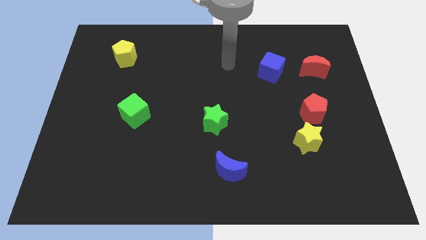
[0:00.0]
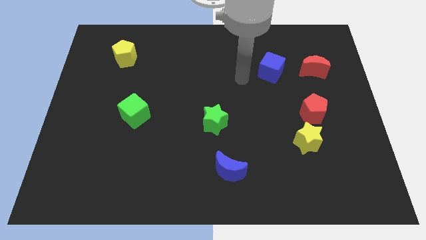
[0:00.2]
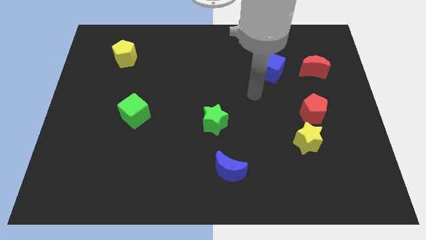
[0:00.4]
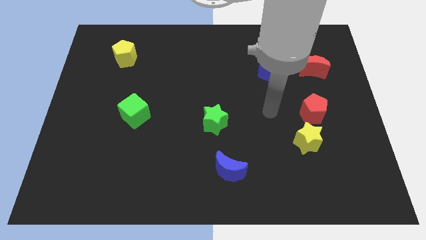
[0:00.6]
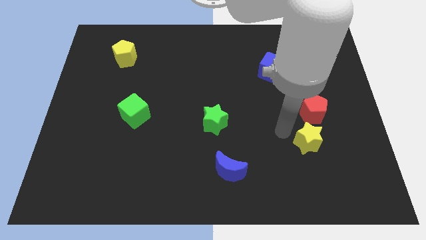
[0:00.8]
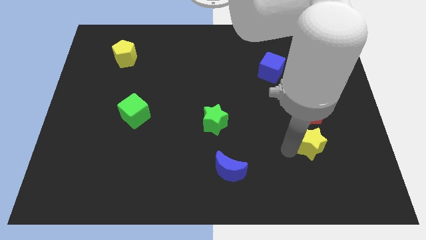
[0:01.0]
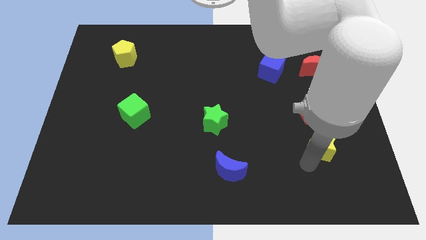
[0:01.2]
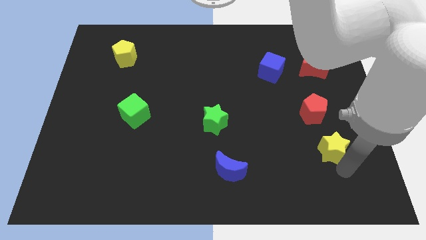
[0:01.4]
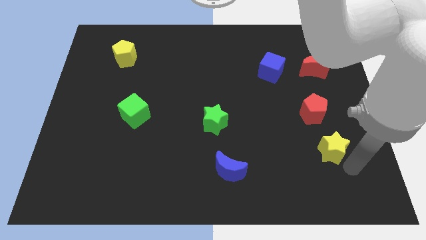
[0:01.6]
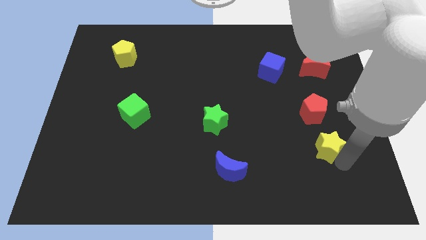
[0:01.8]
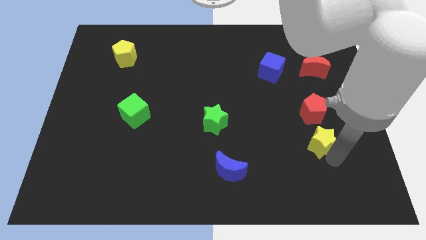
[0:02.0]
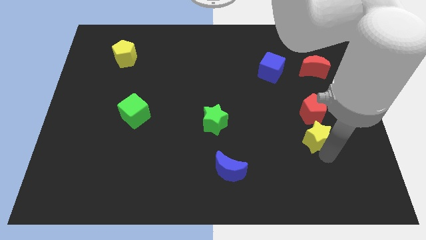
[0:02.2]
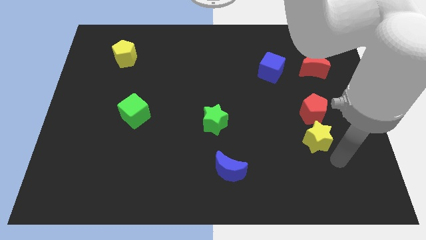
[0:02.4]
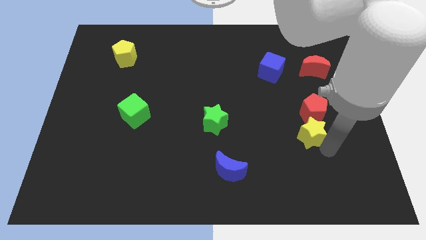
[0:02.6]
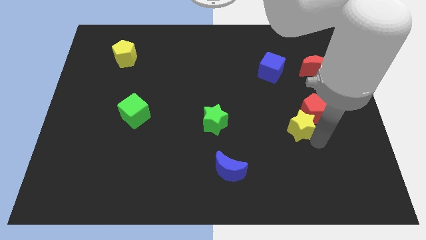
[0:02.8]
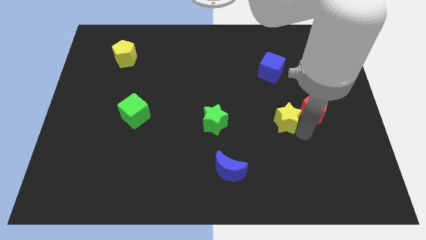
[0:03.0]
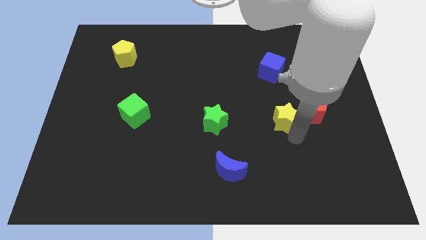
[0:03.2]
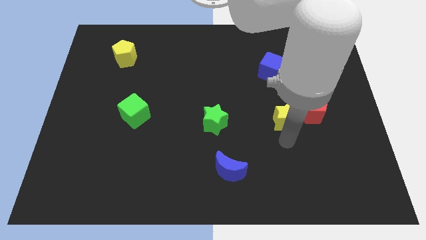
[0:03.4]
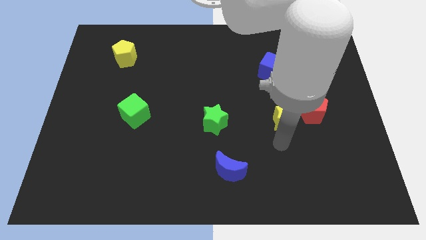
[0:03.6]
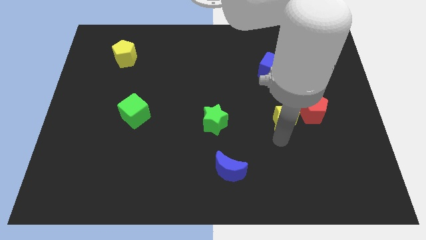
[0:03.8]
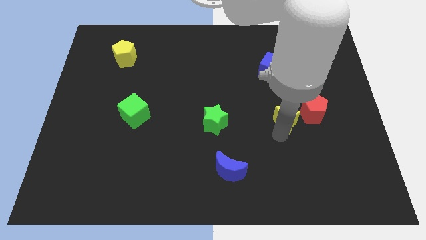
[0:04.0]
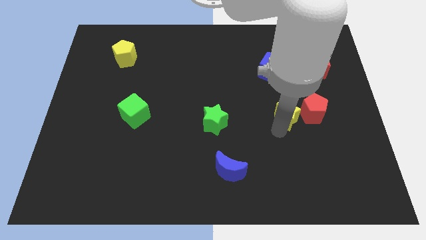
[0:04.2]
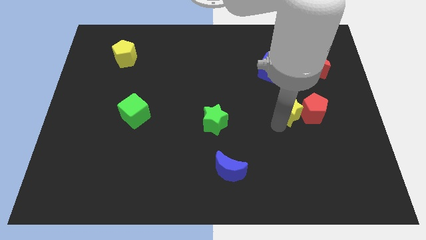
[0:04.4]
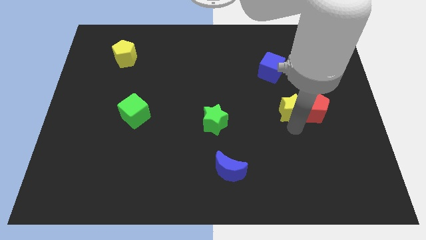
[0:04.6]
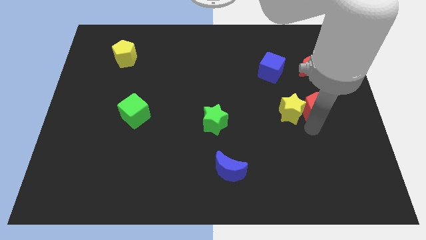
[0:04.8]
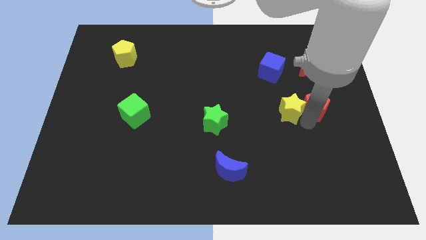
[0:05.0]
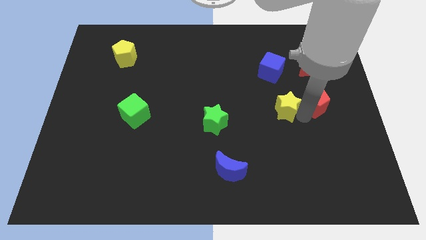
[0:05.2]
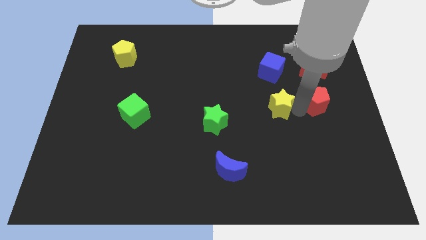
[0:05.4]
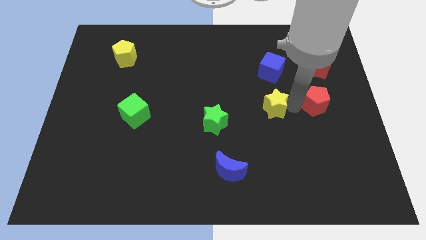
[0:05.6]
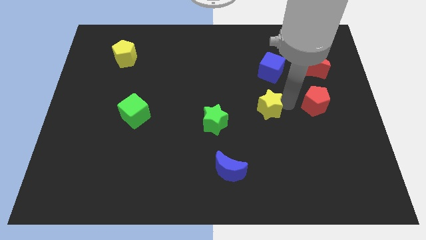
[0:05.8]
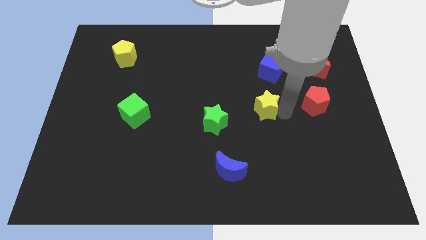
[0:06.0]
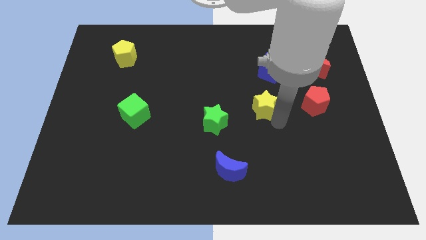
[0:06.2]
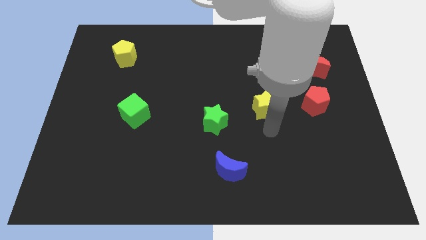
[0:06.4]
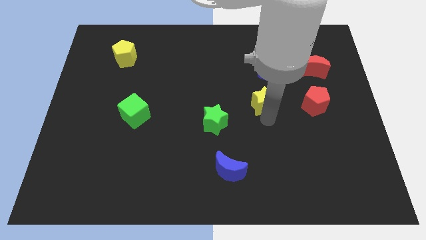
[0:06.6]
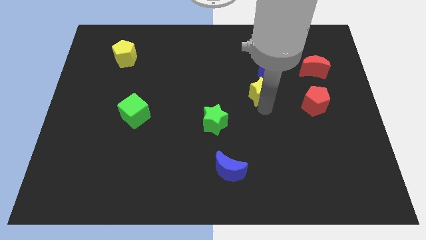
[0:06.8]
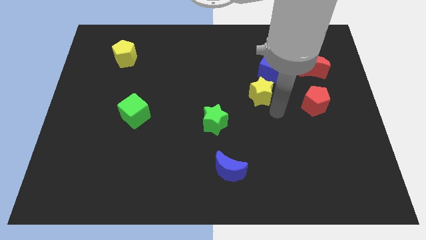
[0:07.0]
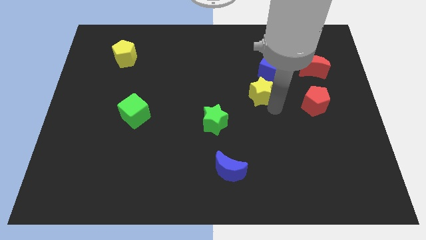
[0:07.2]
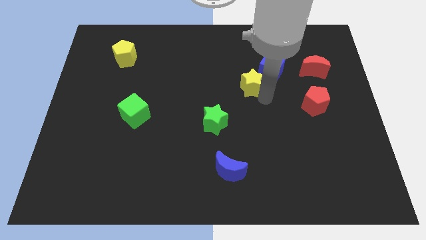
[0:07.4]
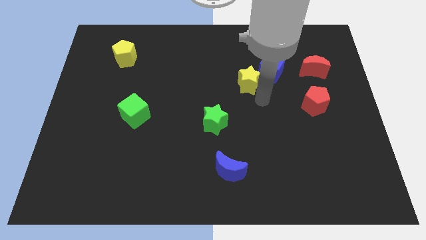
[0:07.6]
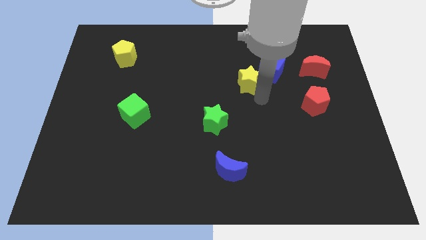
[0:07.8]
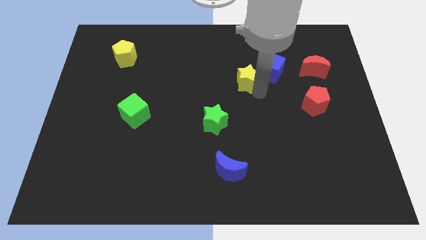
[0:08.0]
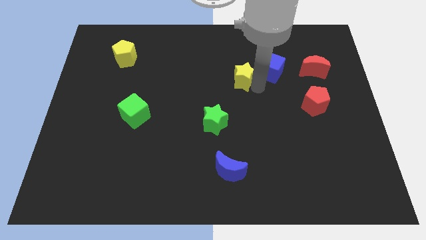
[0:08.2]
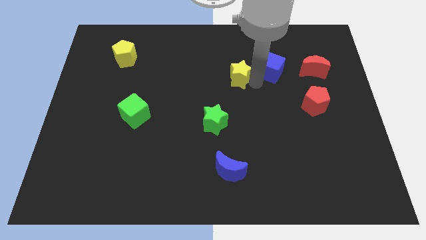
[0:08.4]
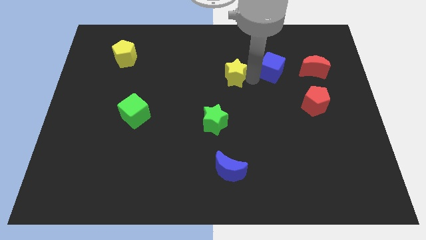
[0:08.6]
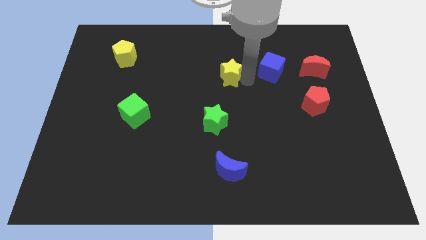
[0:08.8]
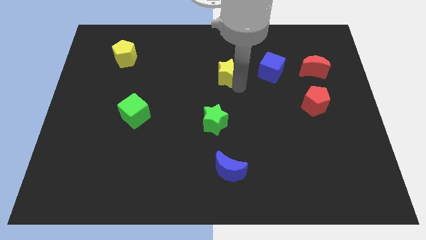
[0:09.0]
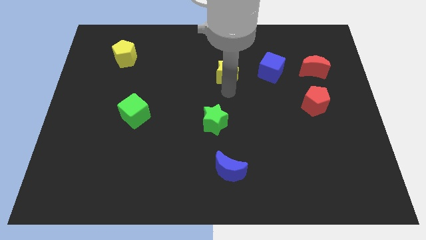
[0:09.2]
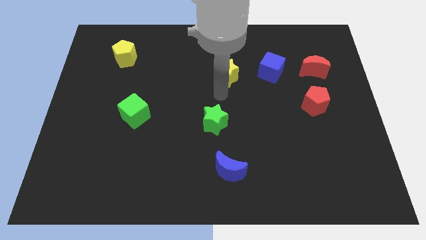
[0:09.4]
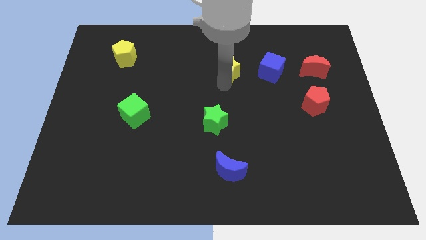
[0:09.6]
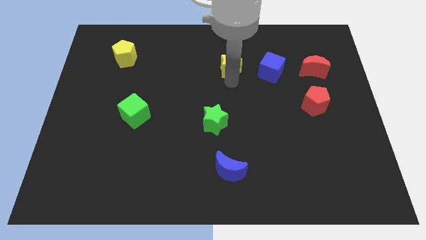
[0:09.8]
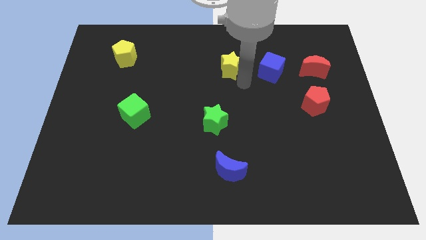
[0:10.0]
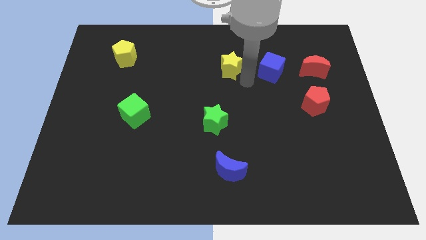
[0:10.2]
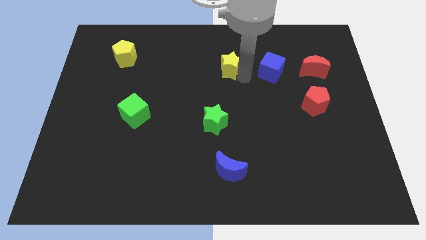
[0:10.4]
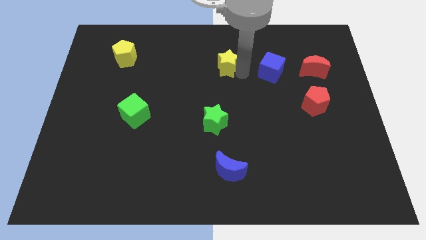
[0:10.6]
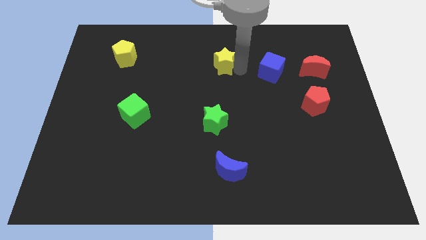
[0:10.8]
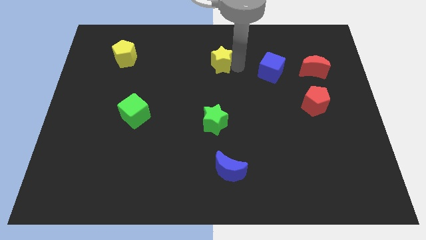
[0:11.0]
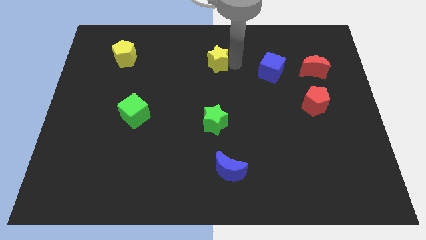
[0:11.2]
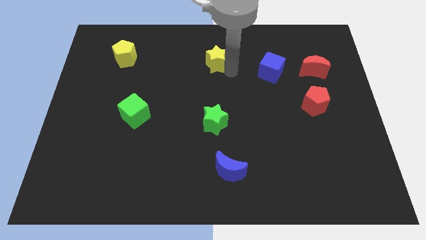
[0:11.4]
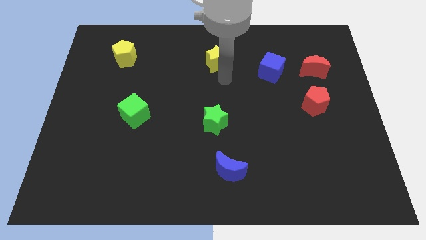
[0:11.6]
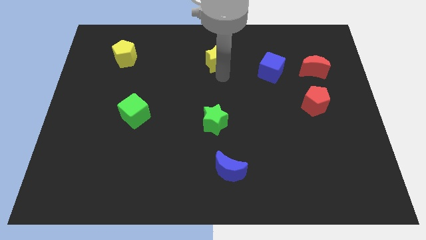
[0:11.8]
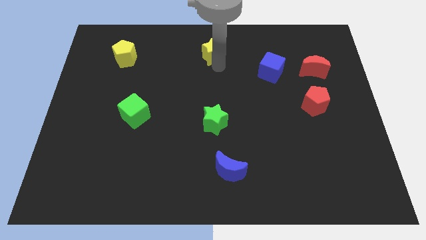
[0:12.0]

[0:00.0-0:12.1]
slide the yellow star to the towards your base

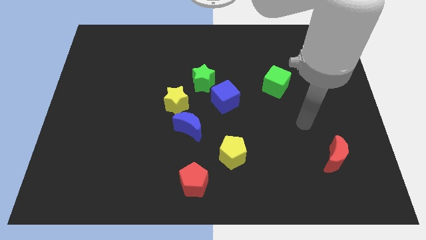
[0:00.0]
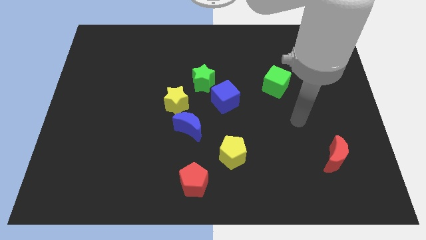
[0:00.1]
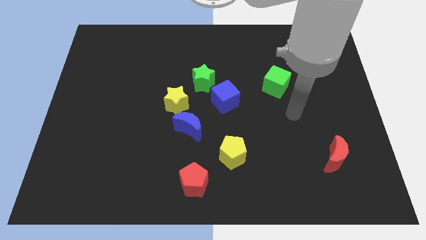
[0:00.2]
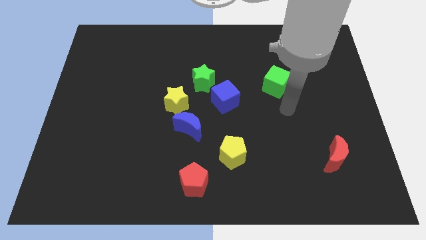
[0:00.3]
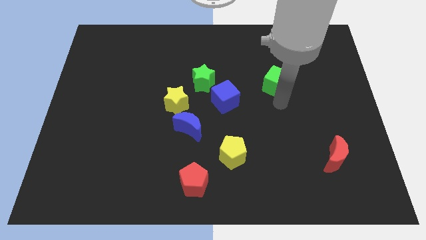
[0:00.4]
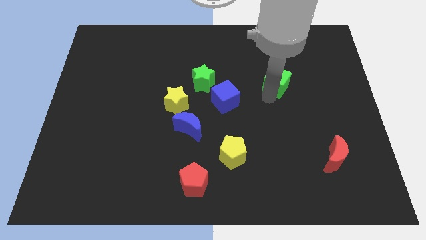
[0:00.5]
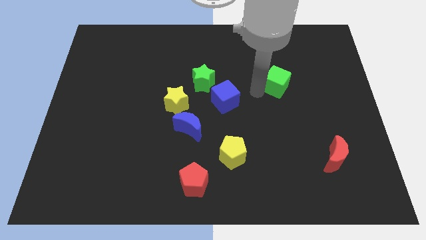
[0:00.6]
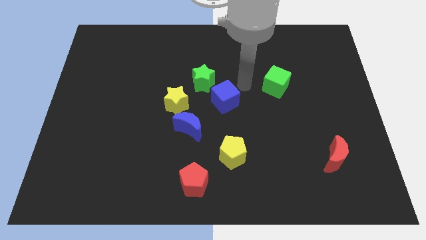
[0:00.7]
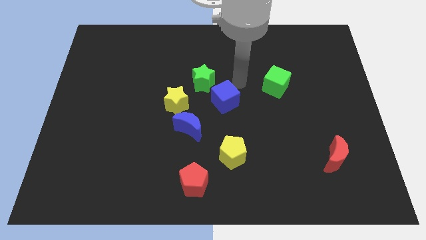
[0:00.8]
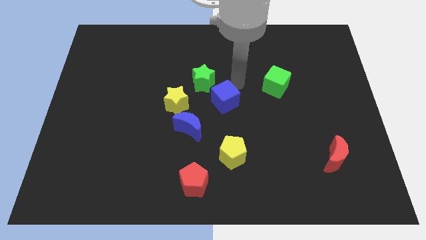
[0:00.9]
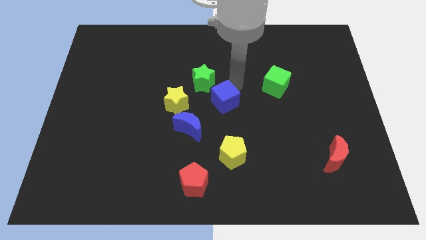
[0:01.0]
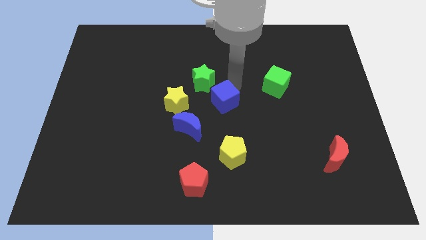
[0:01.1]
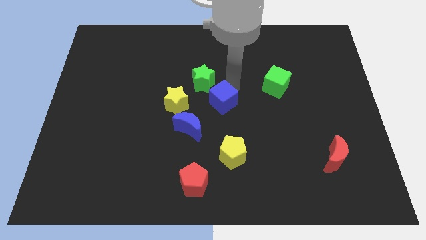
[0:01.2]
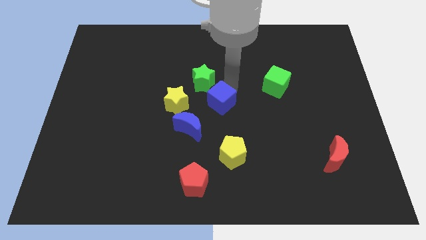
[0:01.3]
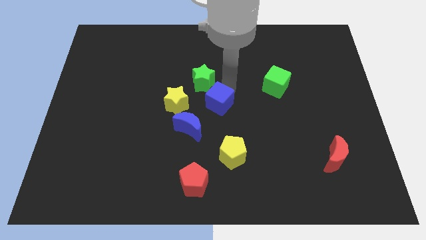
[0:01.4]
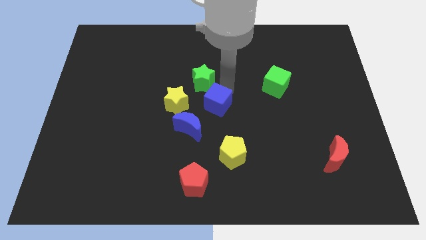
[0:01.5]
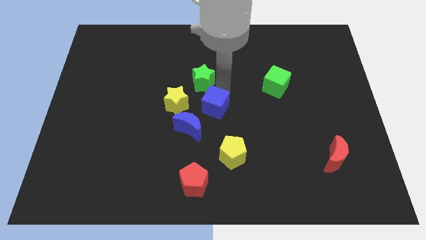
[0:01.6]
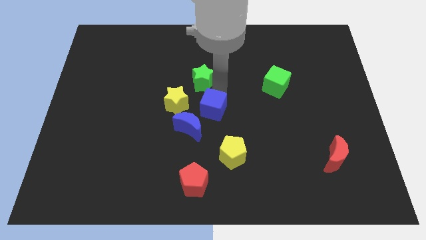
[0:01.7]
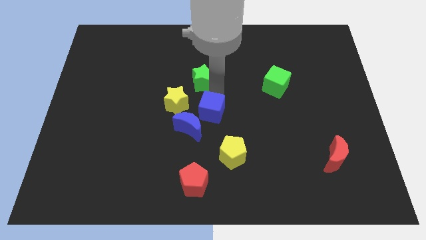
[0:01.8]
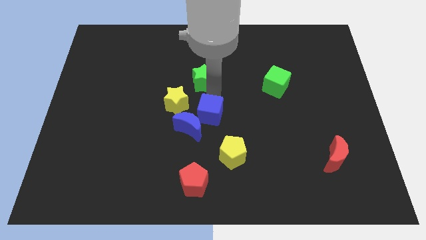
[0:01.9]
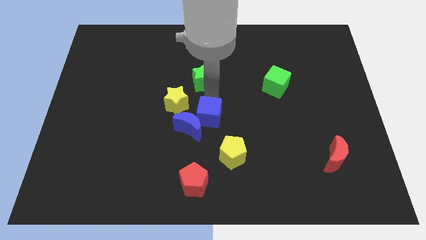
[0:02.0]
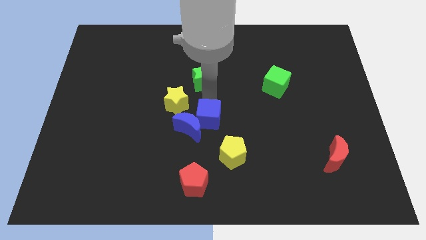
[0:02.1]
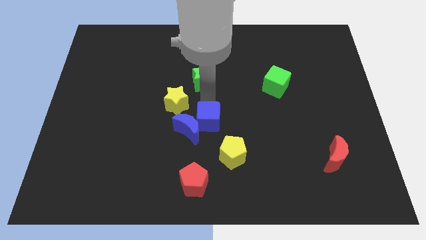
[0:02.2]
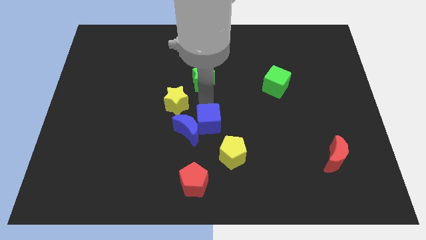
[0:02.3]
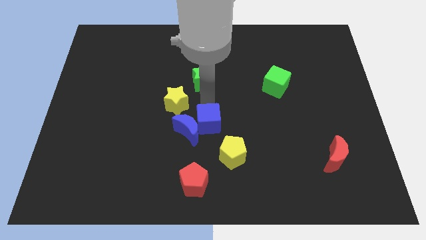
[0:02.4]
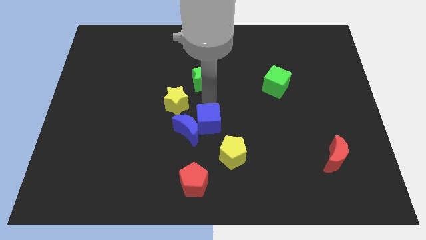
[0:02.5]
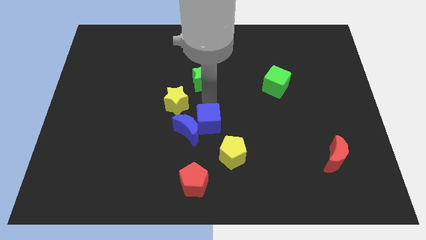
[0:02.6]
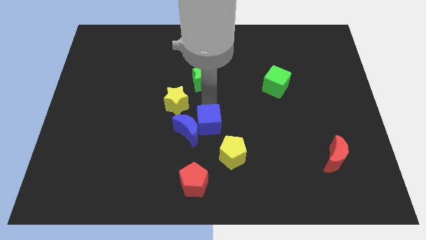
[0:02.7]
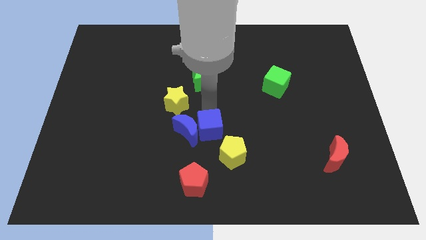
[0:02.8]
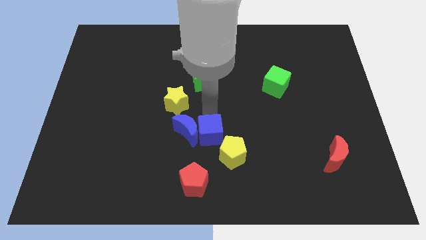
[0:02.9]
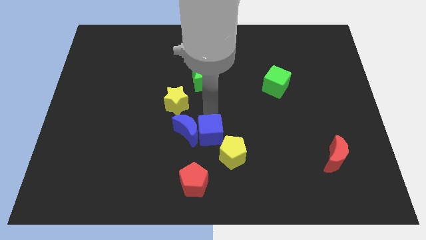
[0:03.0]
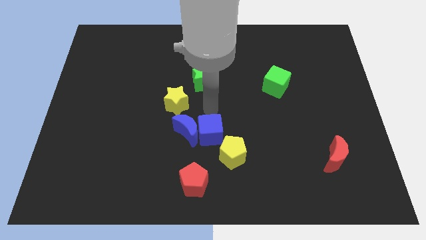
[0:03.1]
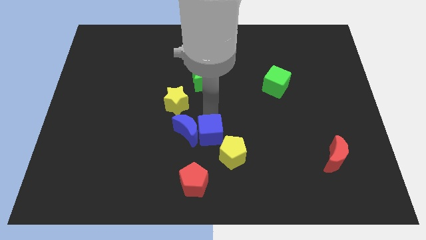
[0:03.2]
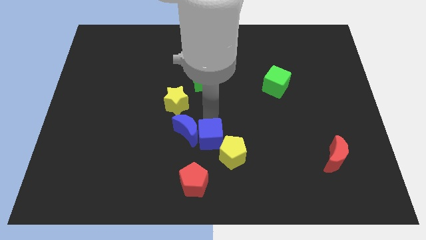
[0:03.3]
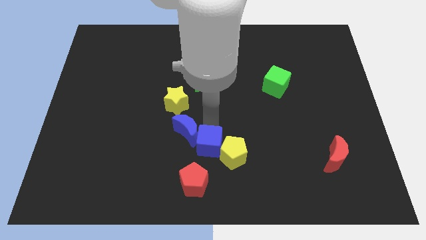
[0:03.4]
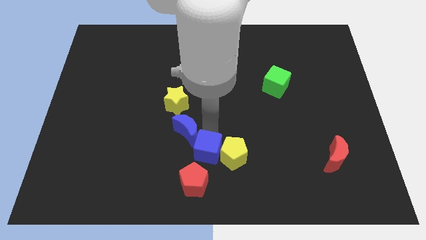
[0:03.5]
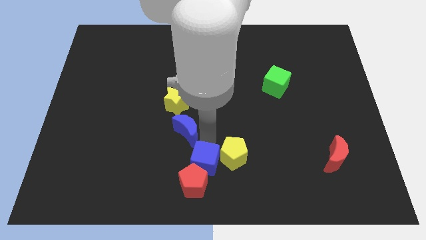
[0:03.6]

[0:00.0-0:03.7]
slide the blue cube to the bottom side
